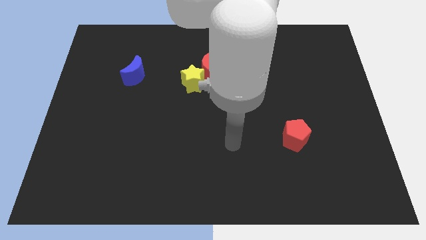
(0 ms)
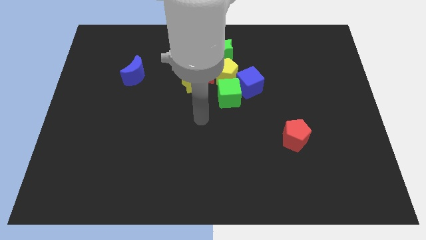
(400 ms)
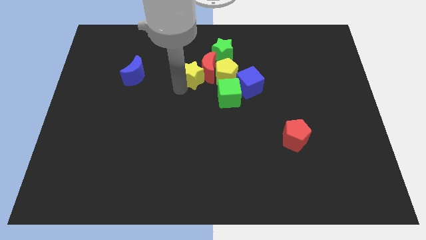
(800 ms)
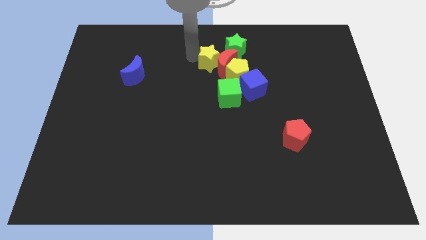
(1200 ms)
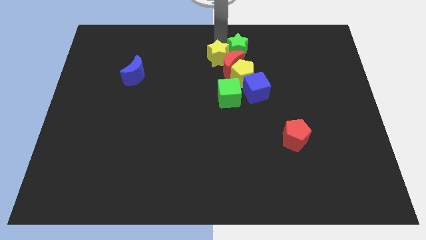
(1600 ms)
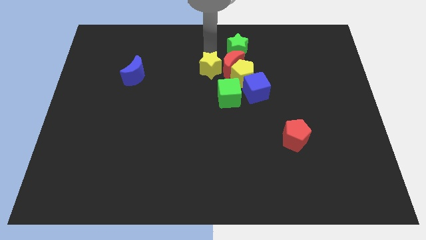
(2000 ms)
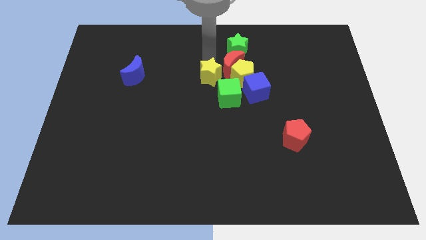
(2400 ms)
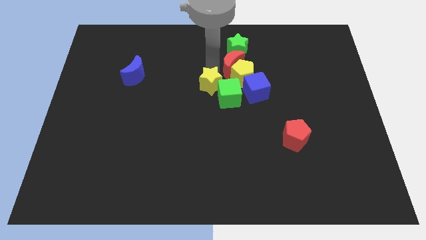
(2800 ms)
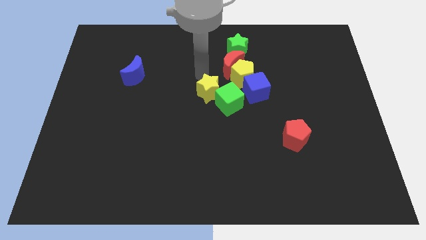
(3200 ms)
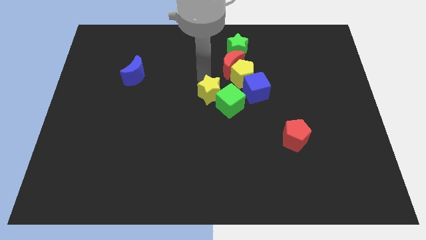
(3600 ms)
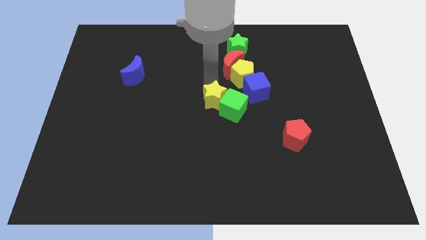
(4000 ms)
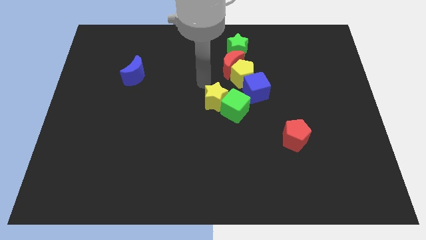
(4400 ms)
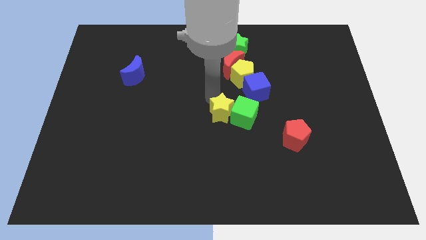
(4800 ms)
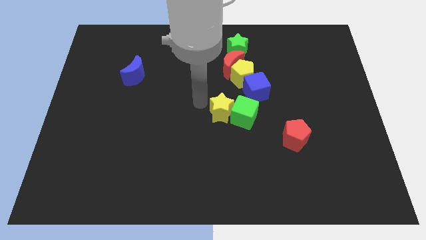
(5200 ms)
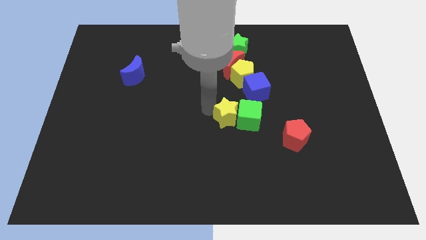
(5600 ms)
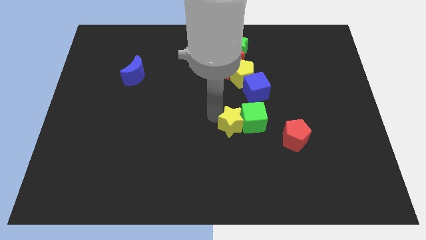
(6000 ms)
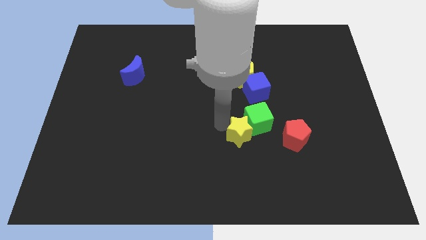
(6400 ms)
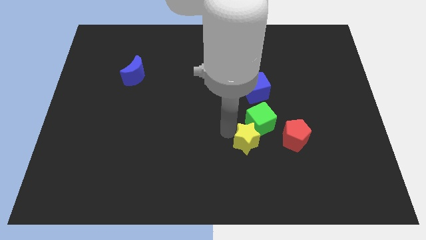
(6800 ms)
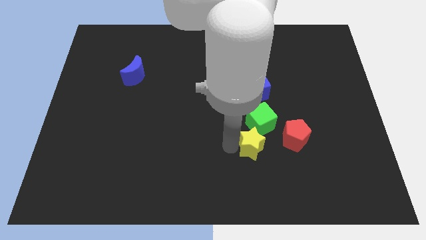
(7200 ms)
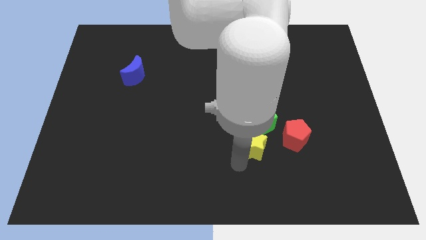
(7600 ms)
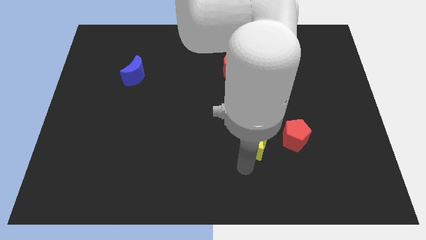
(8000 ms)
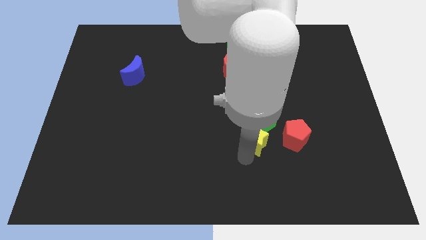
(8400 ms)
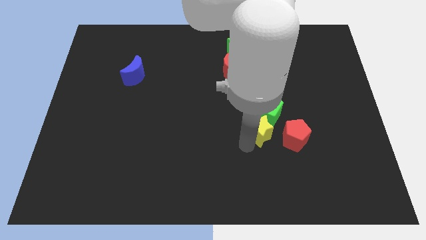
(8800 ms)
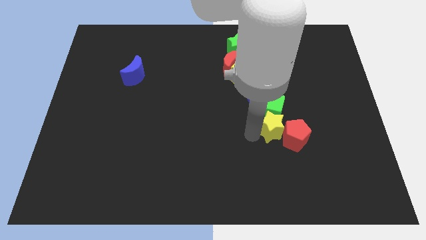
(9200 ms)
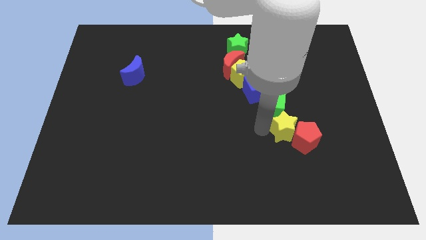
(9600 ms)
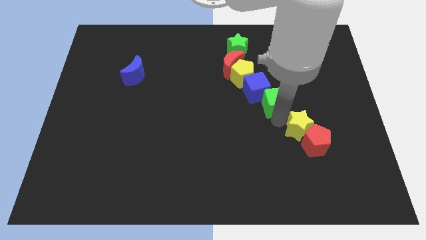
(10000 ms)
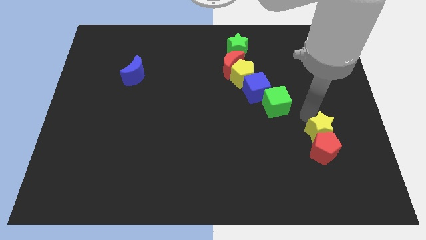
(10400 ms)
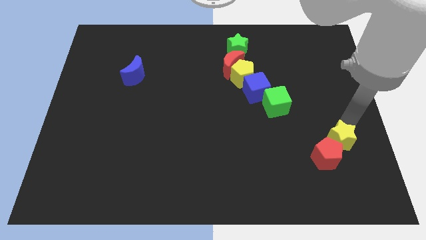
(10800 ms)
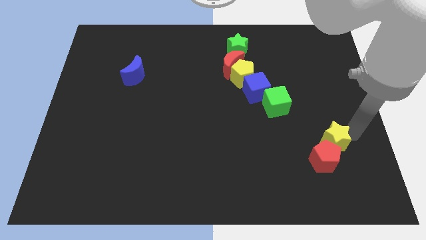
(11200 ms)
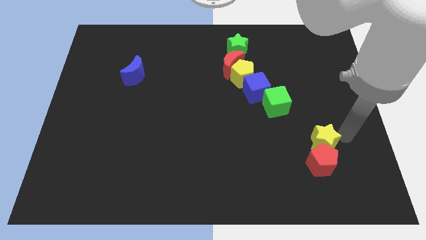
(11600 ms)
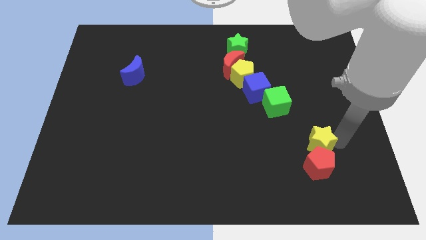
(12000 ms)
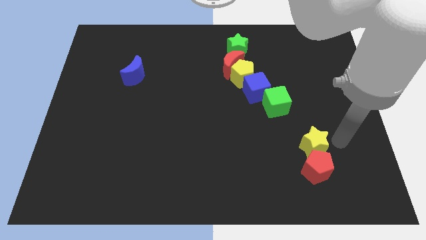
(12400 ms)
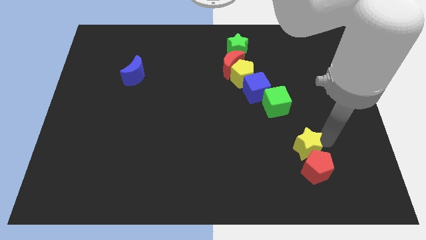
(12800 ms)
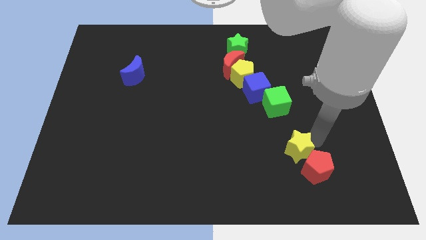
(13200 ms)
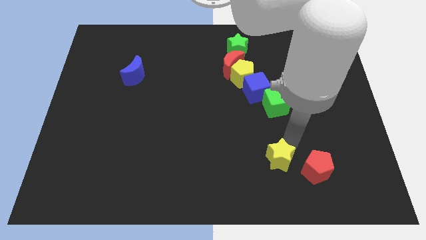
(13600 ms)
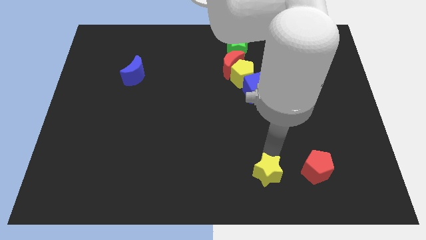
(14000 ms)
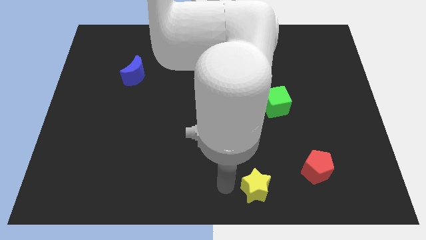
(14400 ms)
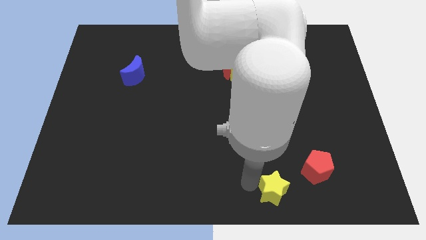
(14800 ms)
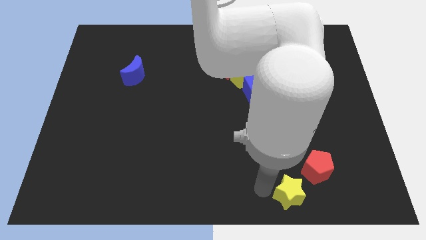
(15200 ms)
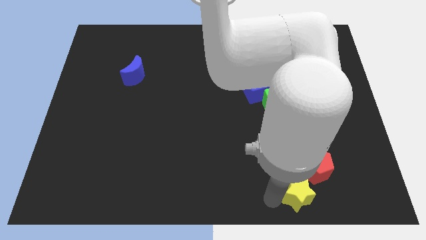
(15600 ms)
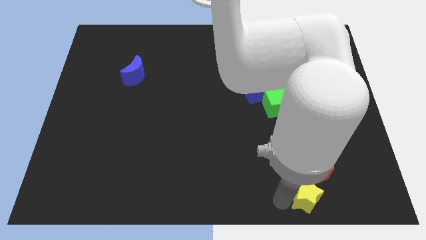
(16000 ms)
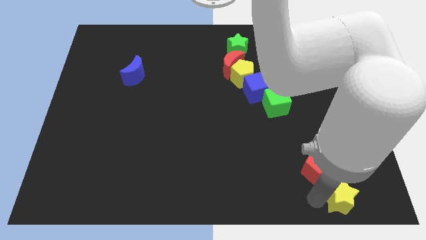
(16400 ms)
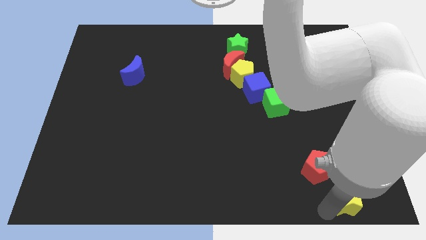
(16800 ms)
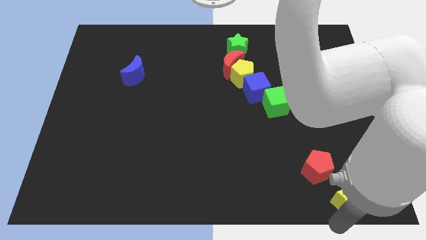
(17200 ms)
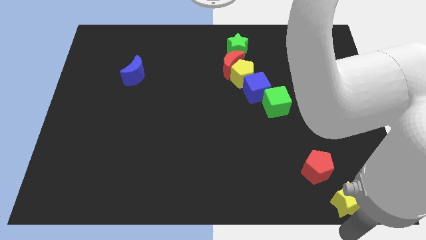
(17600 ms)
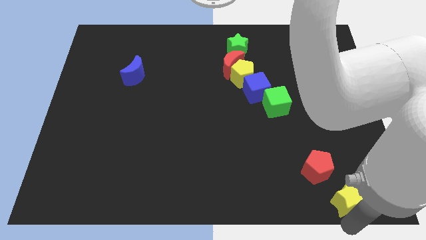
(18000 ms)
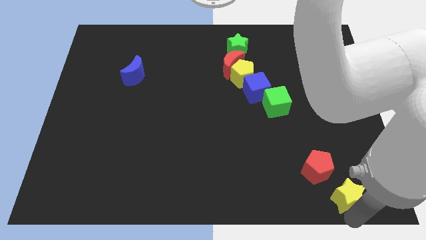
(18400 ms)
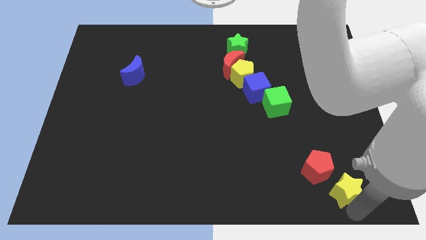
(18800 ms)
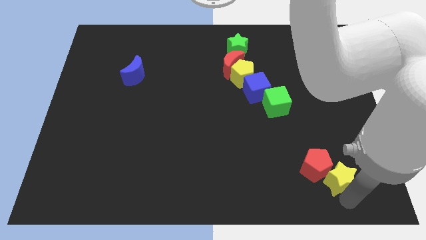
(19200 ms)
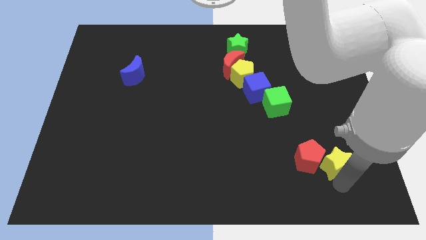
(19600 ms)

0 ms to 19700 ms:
put the yellow star to the bottom right side of the red pentagon

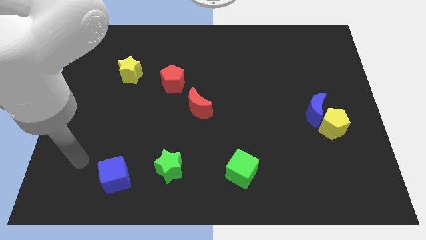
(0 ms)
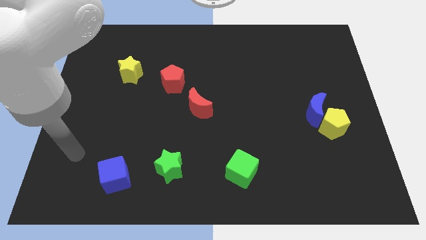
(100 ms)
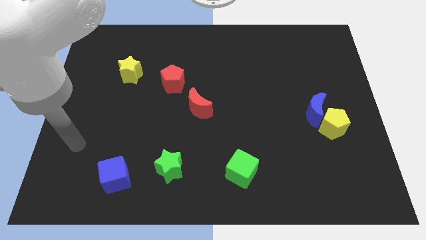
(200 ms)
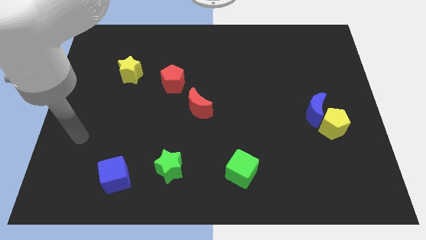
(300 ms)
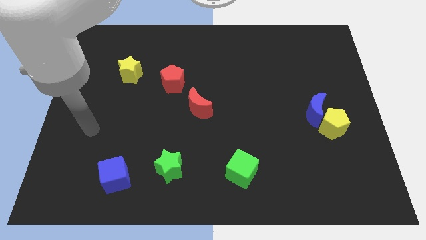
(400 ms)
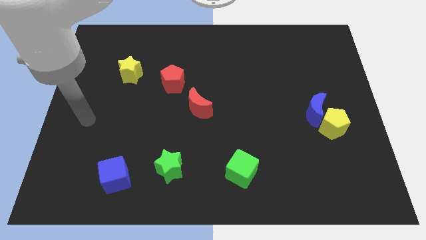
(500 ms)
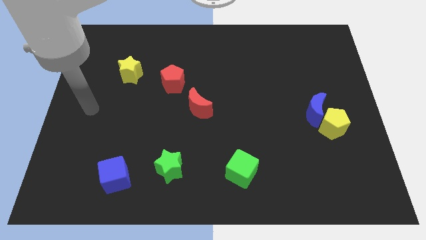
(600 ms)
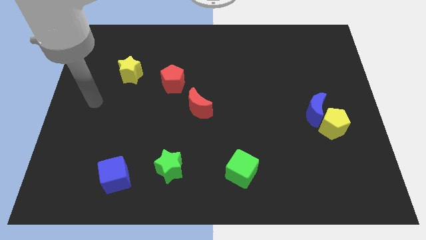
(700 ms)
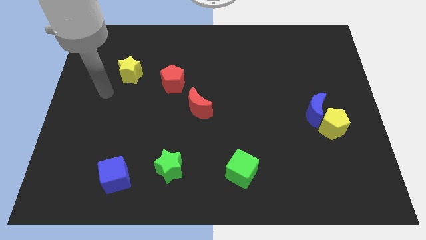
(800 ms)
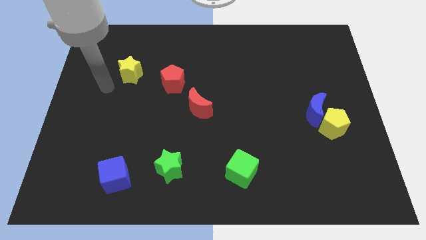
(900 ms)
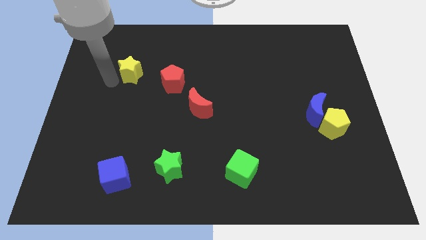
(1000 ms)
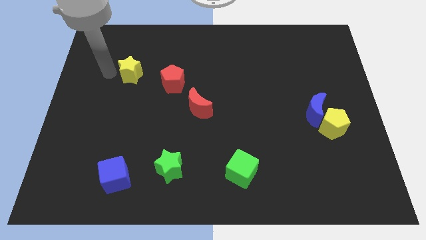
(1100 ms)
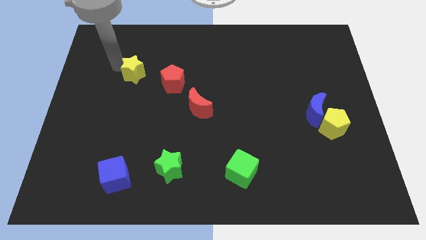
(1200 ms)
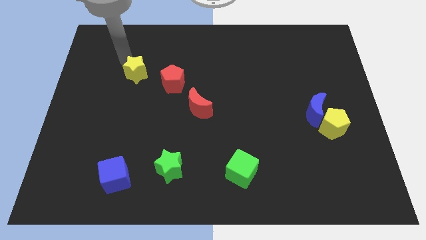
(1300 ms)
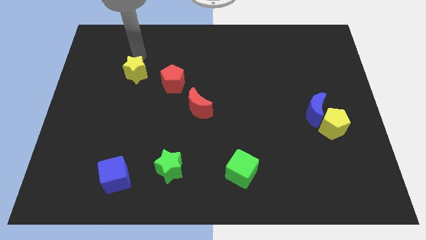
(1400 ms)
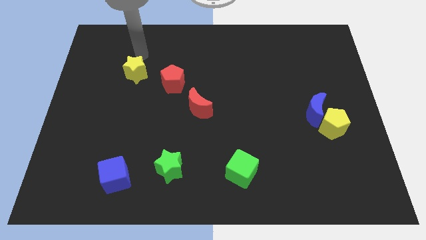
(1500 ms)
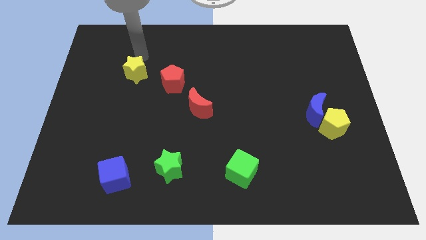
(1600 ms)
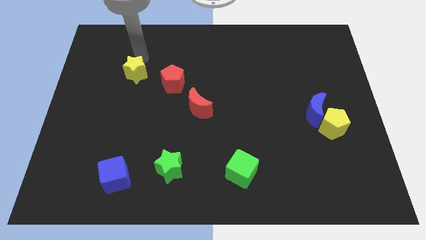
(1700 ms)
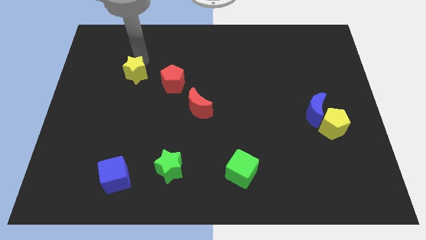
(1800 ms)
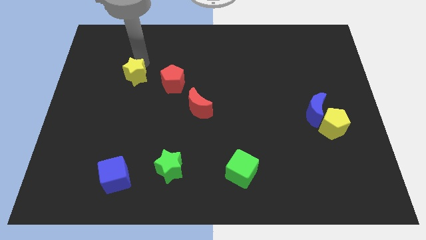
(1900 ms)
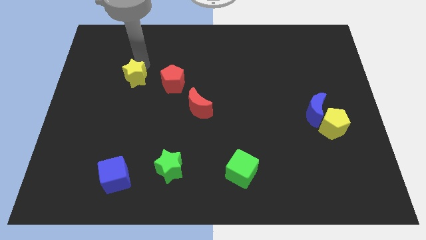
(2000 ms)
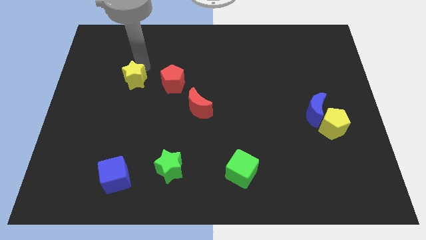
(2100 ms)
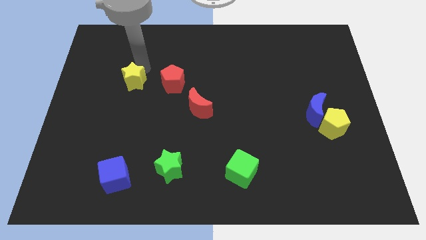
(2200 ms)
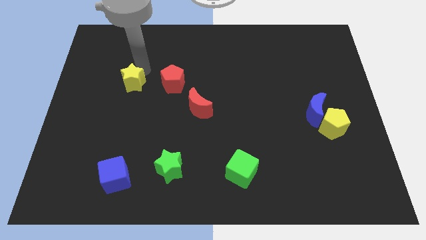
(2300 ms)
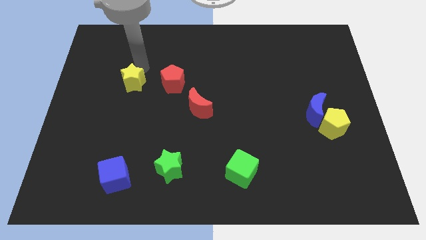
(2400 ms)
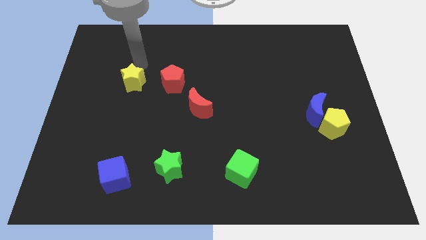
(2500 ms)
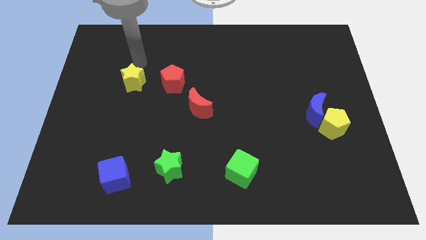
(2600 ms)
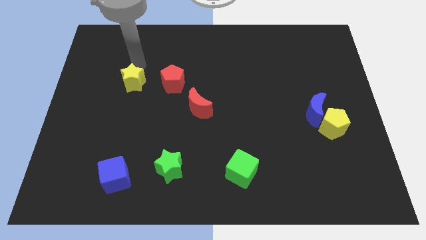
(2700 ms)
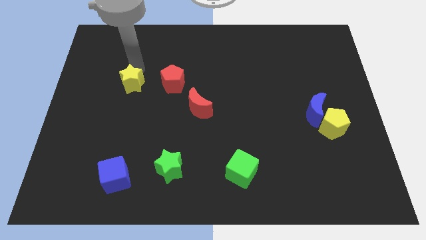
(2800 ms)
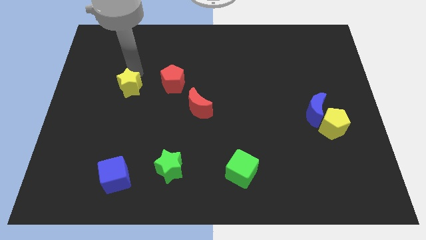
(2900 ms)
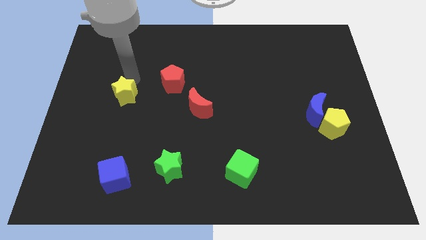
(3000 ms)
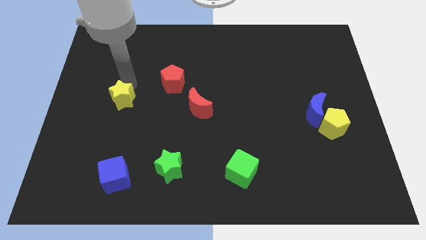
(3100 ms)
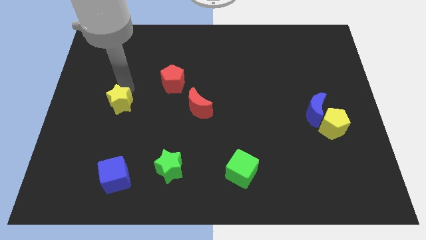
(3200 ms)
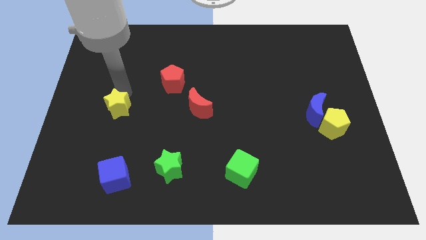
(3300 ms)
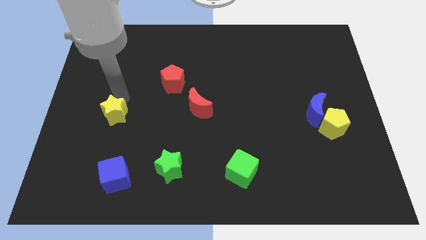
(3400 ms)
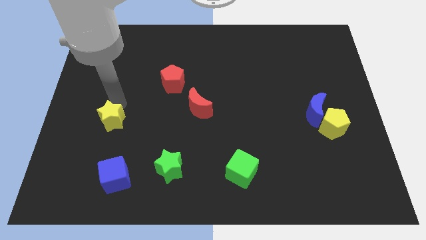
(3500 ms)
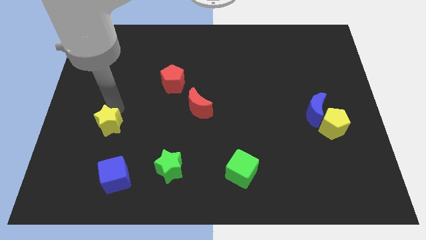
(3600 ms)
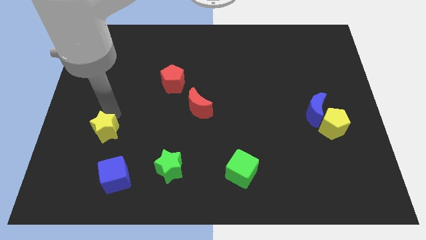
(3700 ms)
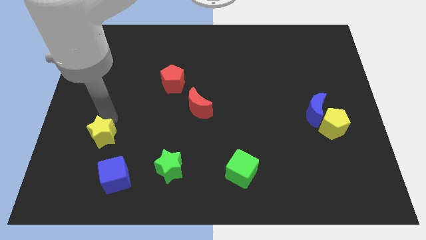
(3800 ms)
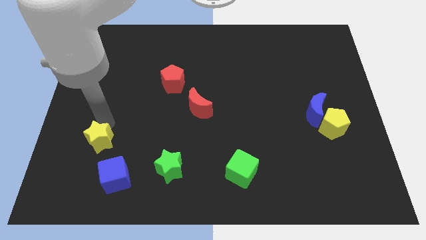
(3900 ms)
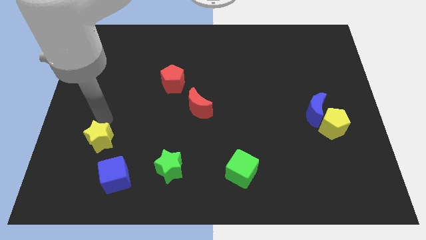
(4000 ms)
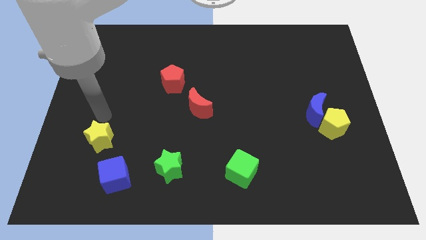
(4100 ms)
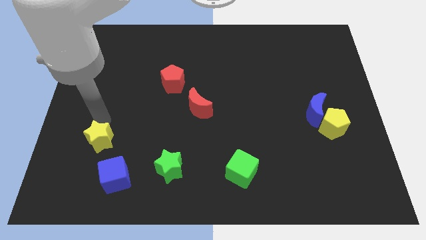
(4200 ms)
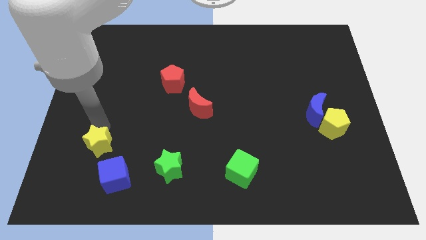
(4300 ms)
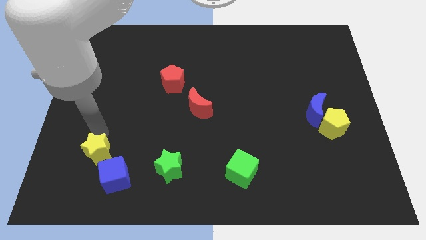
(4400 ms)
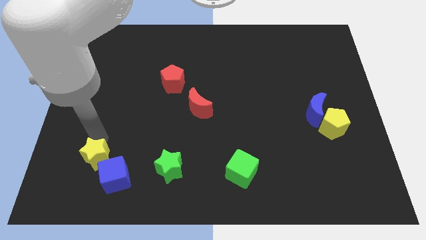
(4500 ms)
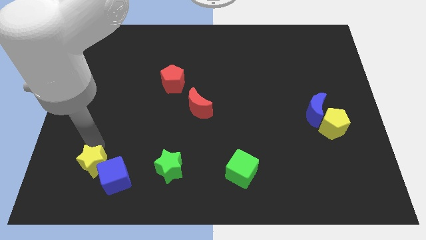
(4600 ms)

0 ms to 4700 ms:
move the yellow star left of the green star
